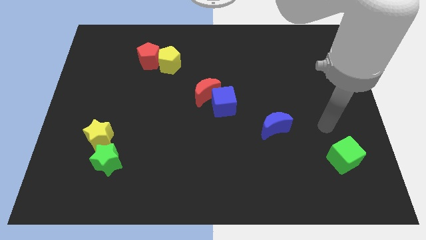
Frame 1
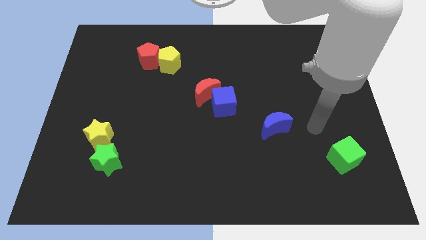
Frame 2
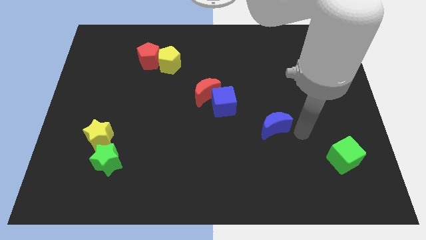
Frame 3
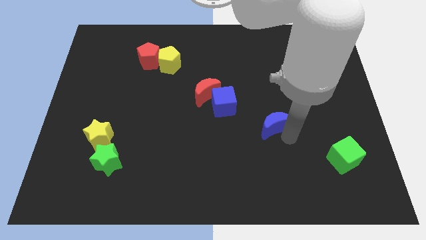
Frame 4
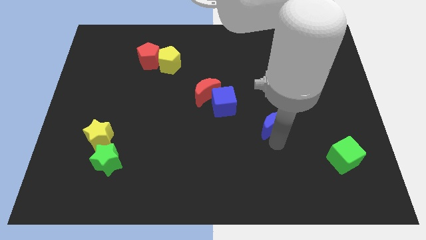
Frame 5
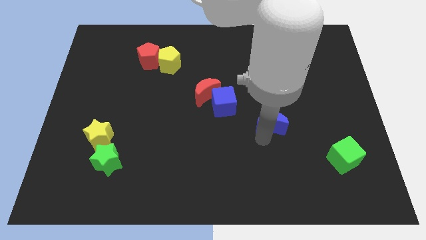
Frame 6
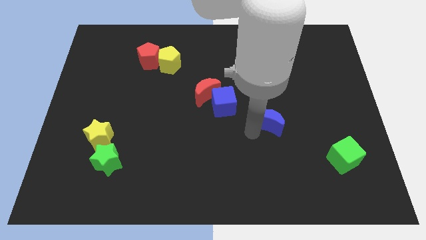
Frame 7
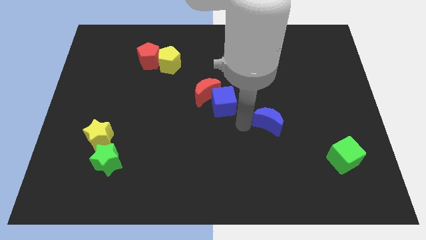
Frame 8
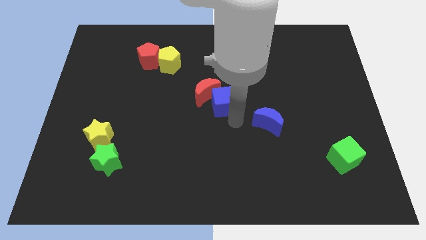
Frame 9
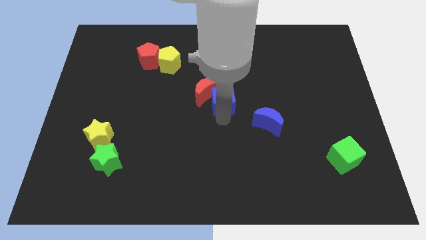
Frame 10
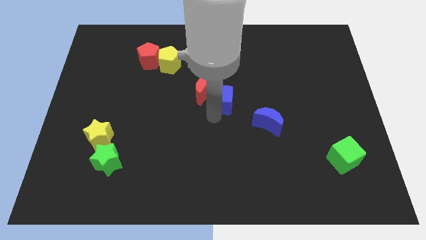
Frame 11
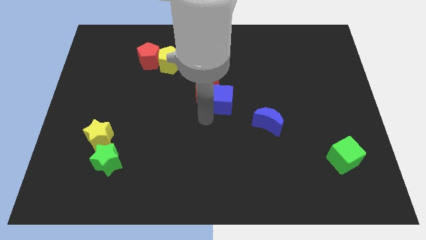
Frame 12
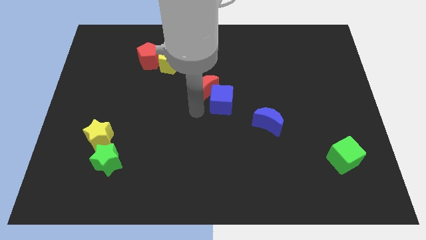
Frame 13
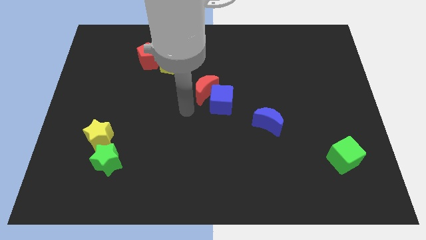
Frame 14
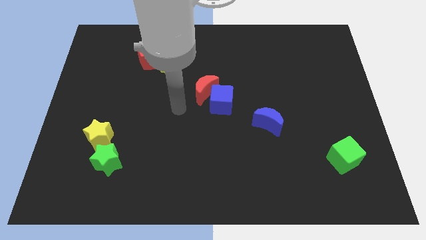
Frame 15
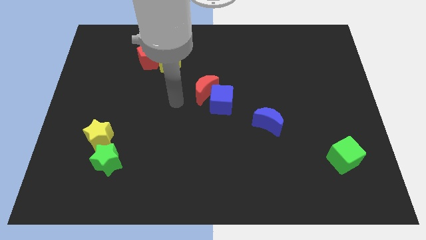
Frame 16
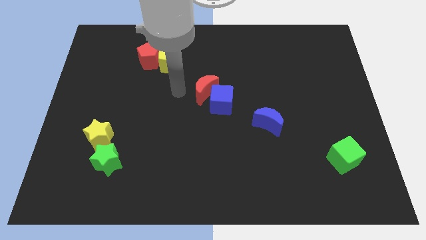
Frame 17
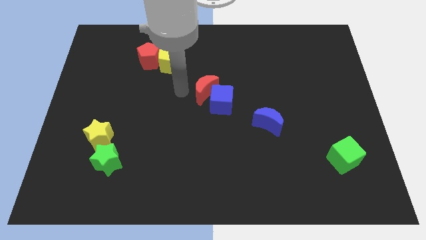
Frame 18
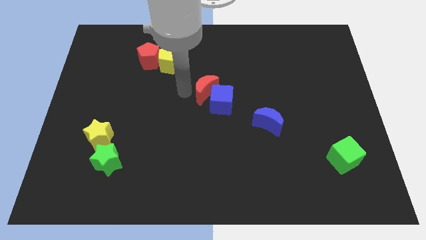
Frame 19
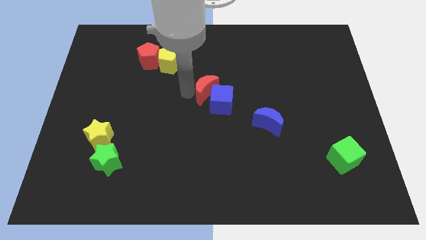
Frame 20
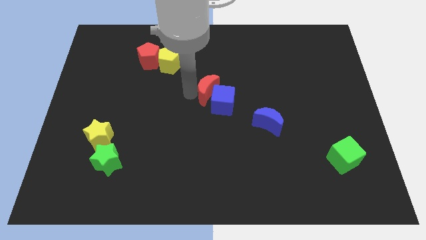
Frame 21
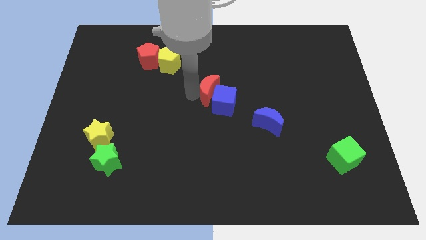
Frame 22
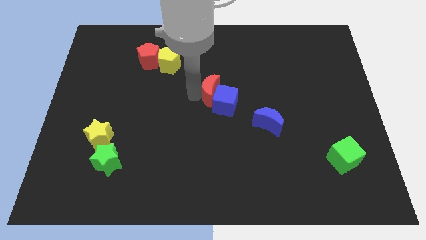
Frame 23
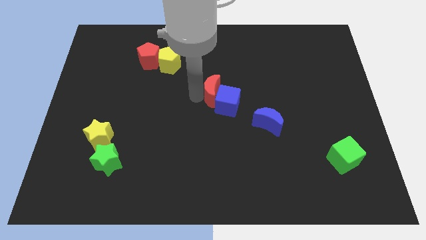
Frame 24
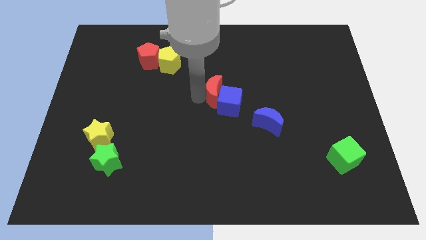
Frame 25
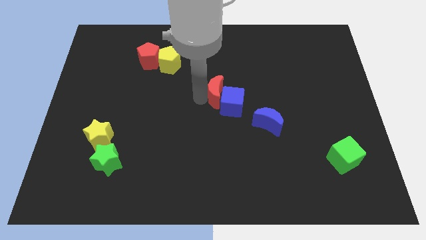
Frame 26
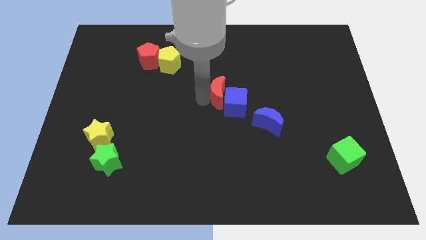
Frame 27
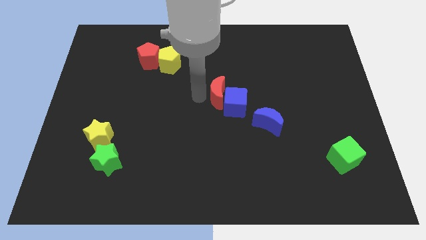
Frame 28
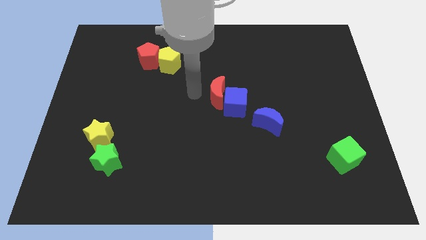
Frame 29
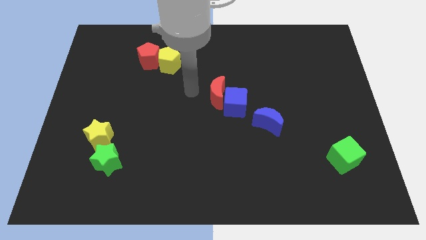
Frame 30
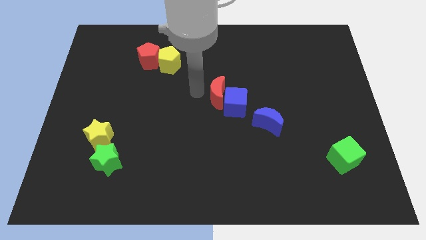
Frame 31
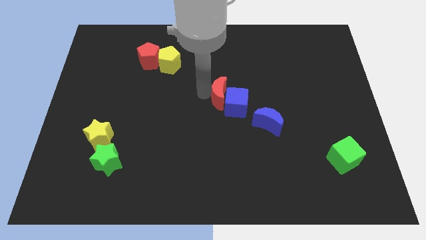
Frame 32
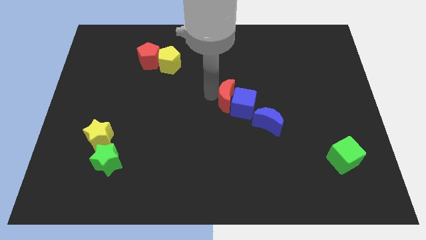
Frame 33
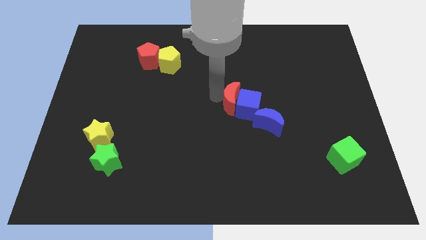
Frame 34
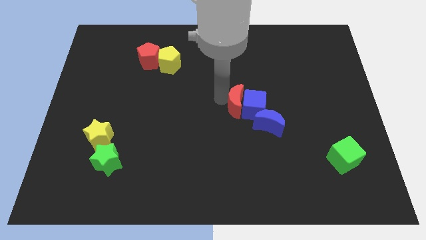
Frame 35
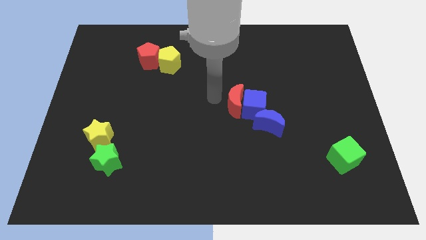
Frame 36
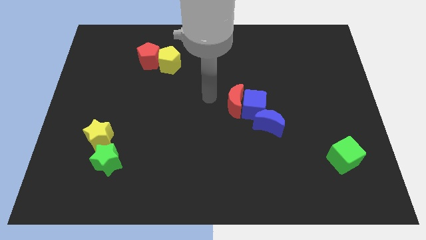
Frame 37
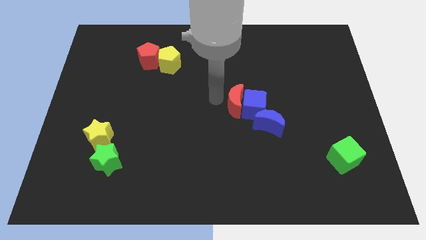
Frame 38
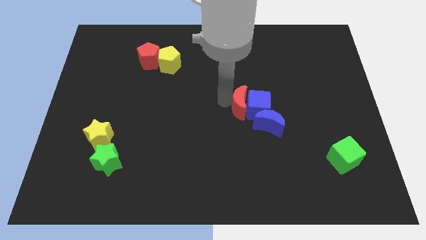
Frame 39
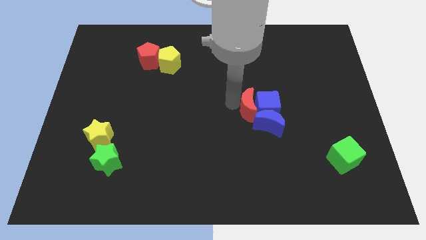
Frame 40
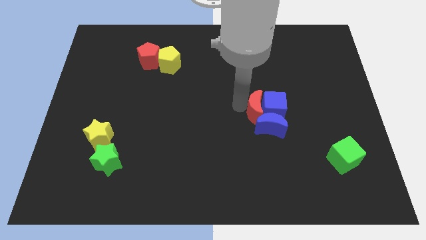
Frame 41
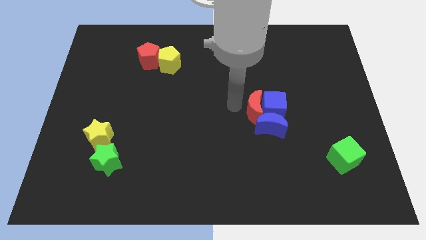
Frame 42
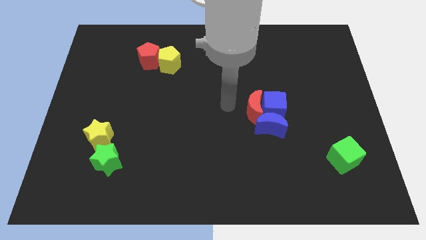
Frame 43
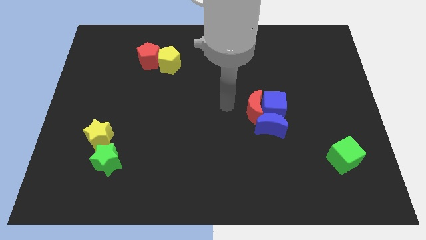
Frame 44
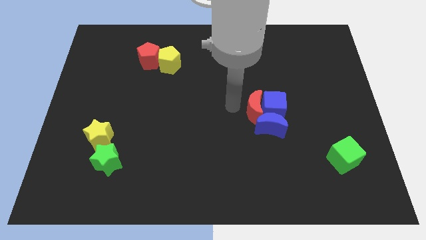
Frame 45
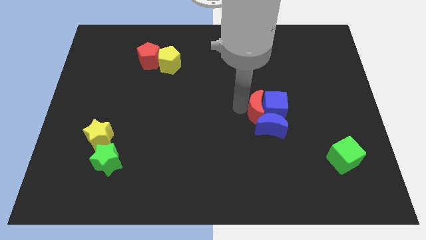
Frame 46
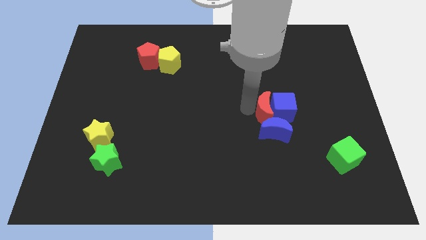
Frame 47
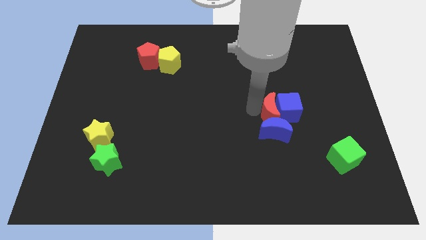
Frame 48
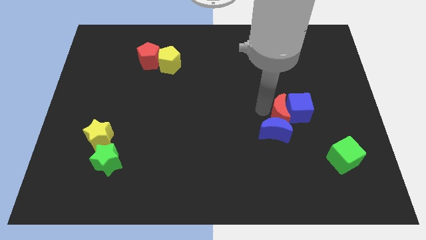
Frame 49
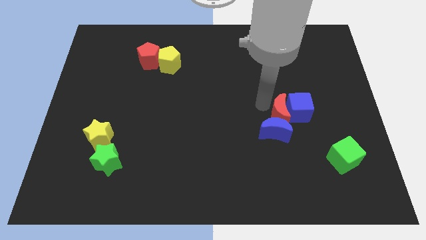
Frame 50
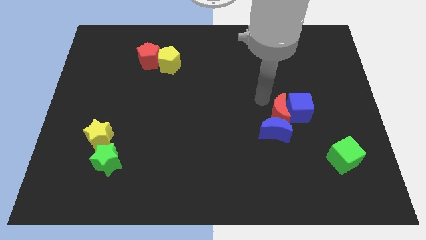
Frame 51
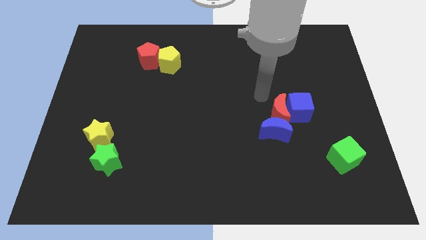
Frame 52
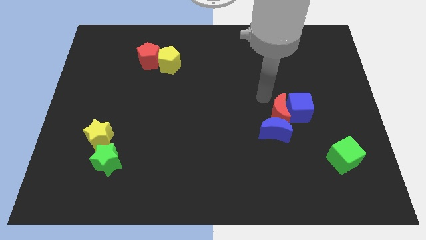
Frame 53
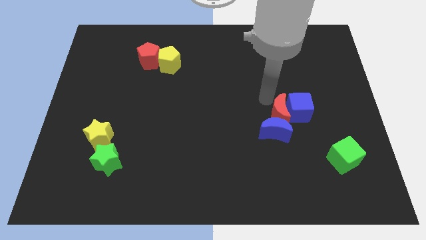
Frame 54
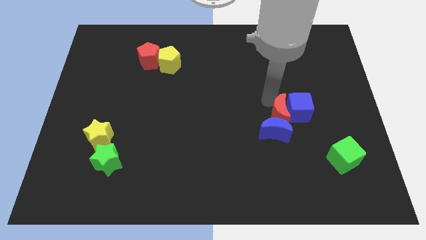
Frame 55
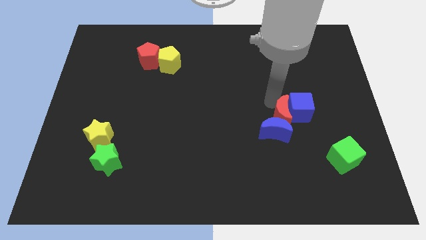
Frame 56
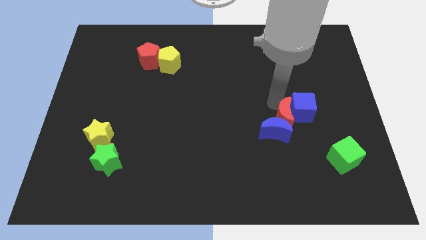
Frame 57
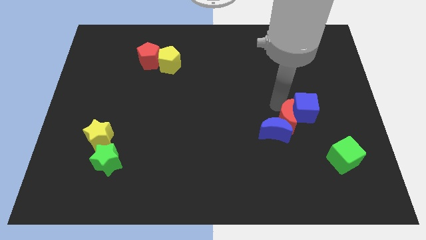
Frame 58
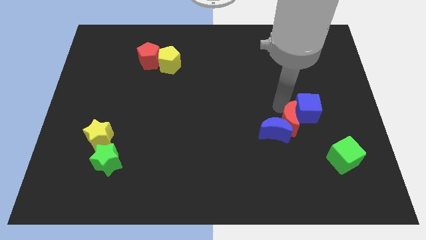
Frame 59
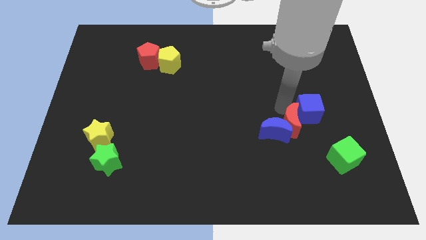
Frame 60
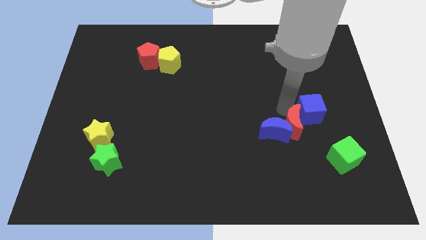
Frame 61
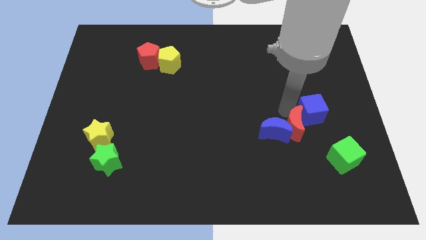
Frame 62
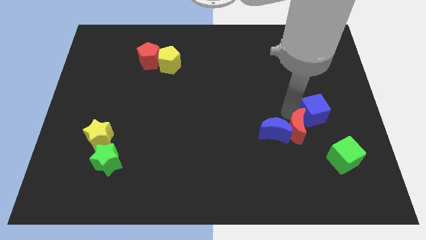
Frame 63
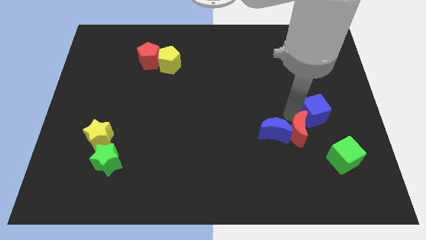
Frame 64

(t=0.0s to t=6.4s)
move the red moon down and right diagonally

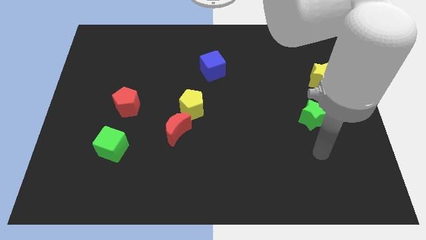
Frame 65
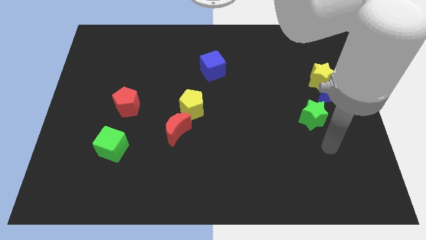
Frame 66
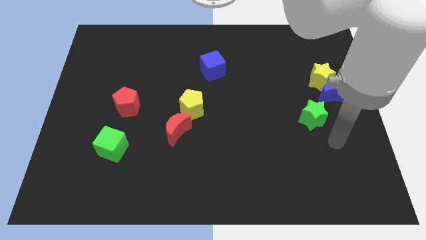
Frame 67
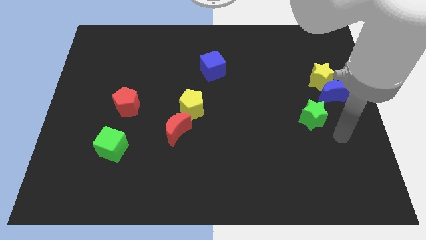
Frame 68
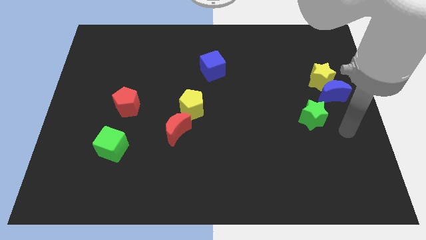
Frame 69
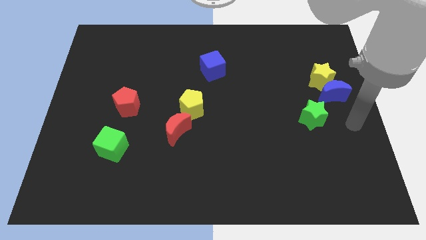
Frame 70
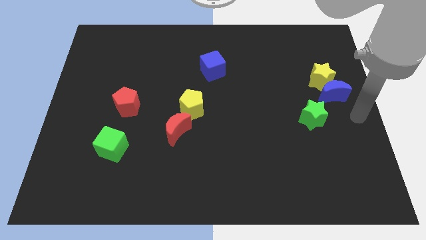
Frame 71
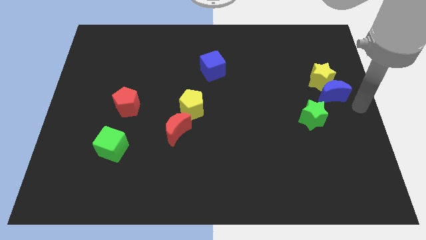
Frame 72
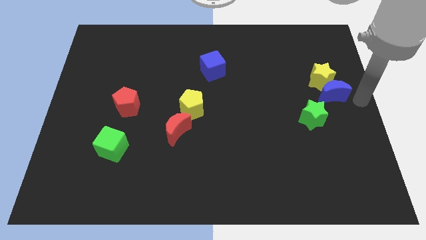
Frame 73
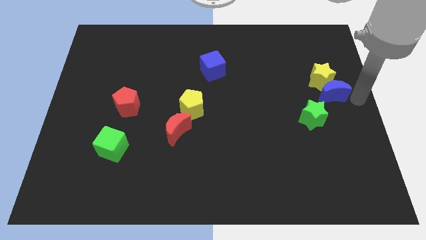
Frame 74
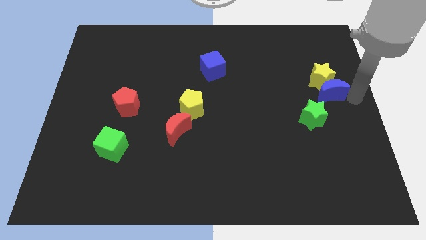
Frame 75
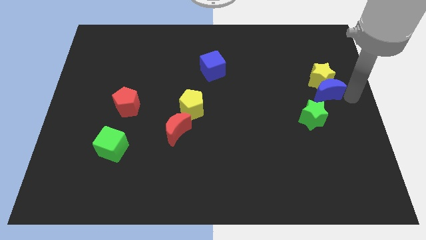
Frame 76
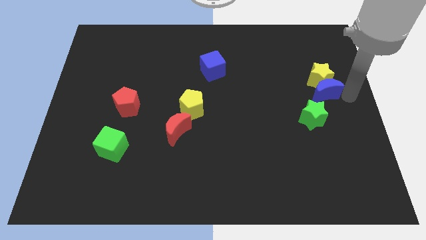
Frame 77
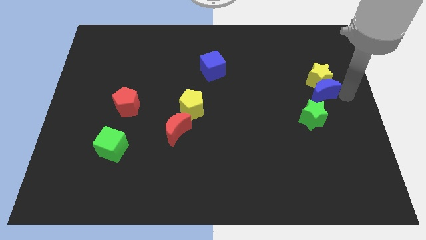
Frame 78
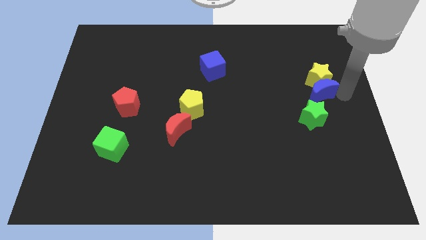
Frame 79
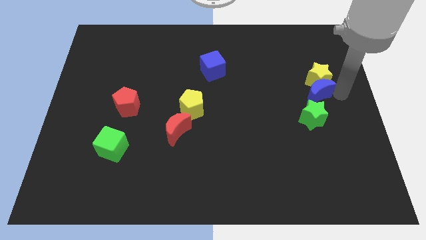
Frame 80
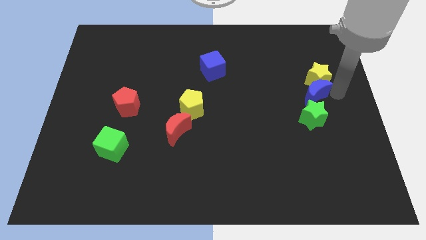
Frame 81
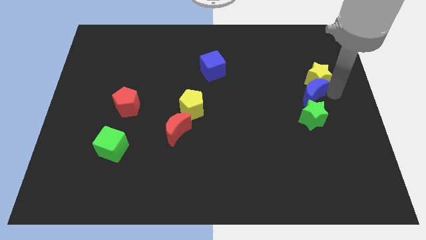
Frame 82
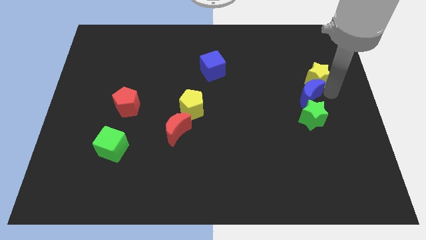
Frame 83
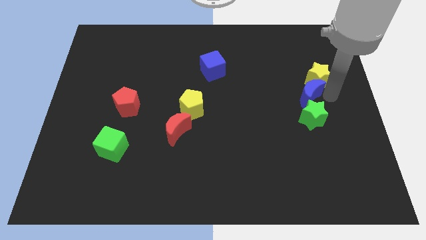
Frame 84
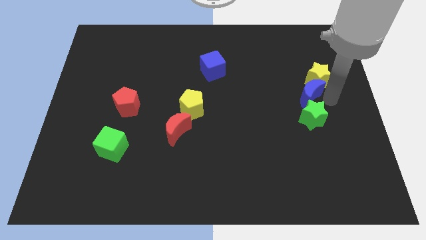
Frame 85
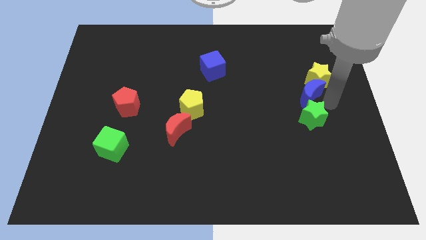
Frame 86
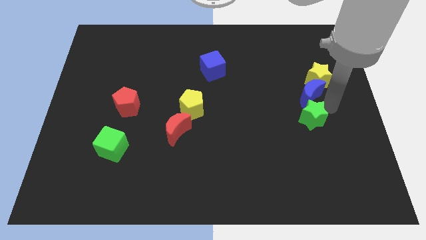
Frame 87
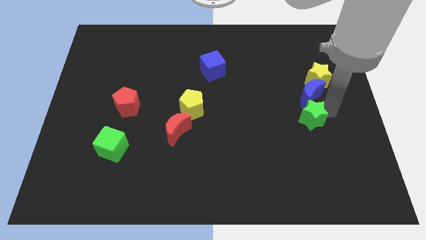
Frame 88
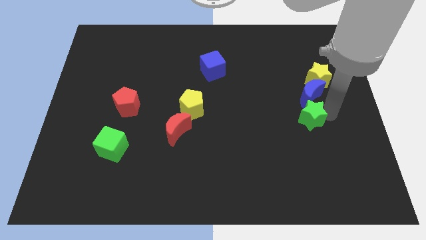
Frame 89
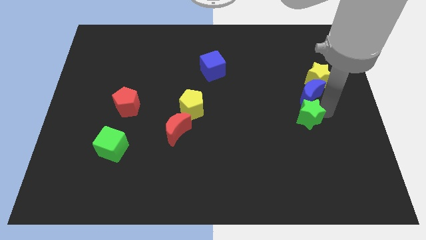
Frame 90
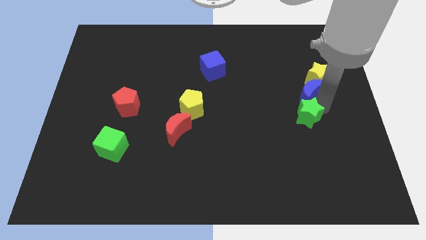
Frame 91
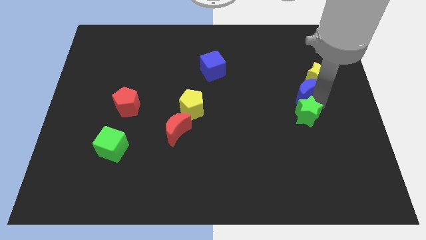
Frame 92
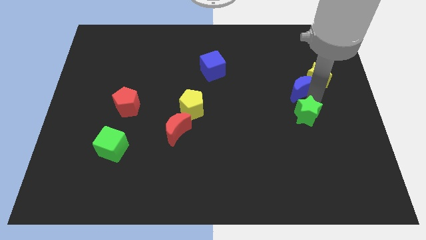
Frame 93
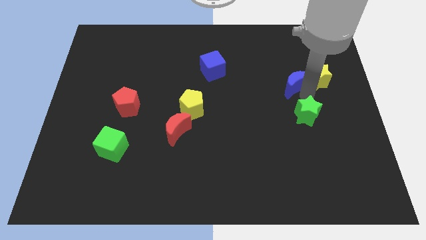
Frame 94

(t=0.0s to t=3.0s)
move the blue moon up and then left a bit
